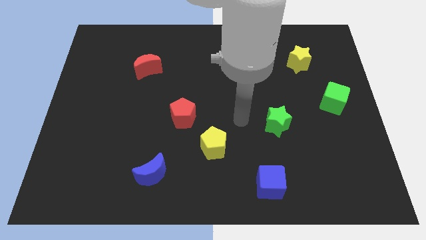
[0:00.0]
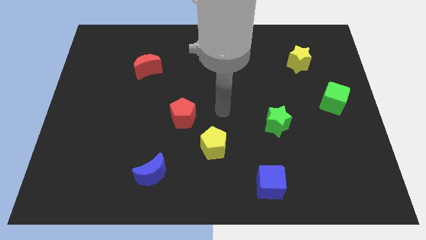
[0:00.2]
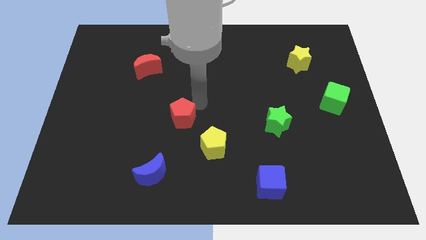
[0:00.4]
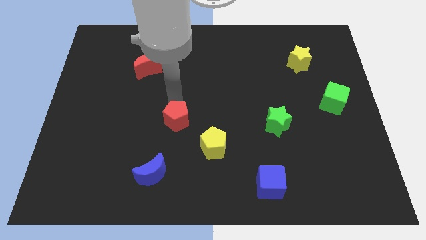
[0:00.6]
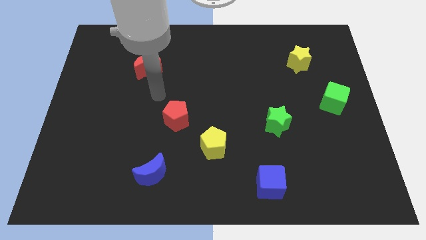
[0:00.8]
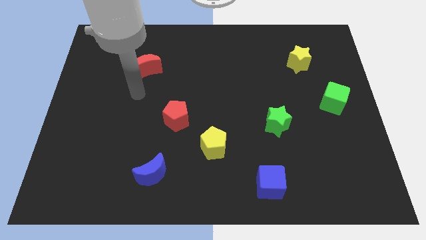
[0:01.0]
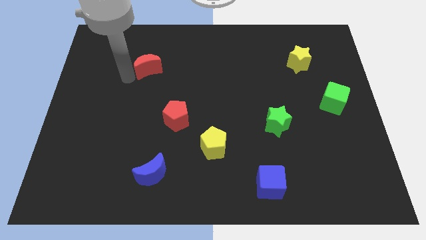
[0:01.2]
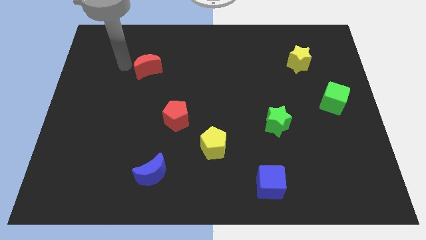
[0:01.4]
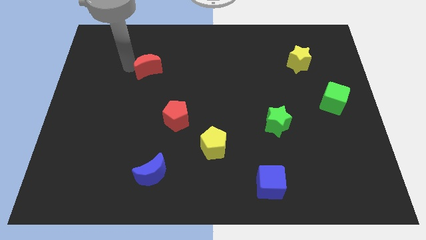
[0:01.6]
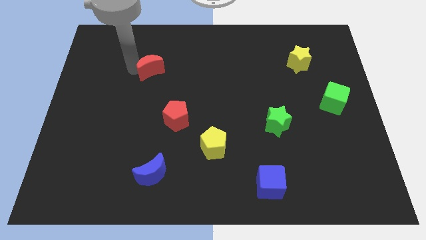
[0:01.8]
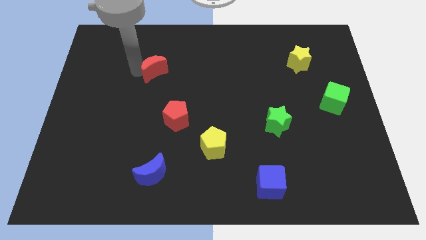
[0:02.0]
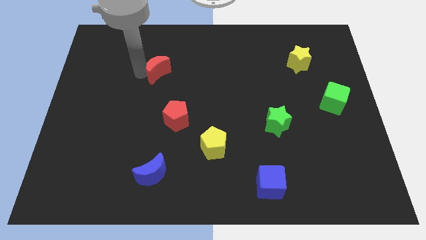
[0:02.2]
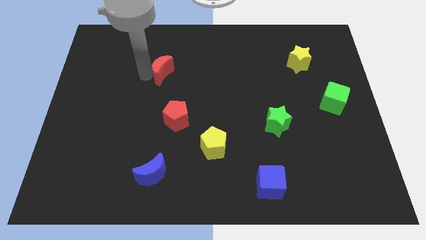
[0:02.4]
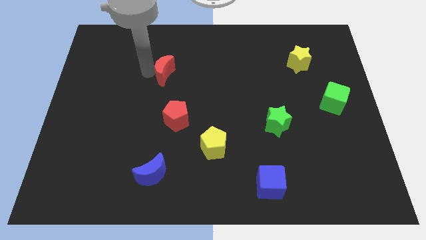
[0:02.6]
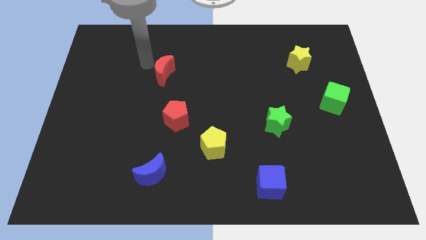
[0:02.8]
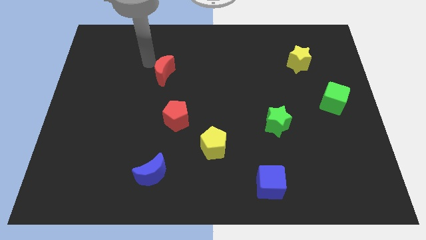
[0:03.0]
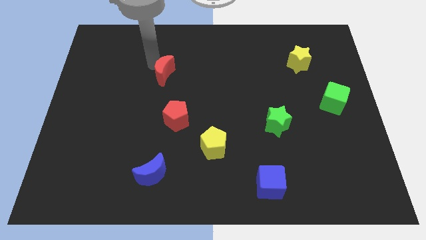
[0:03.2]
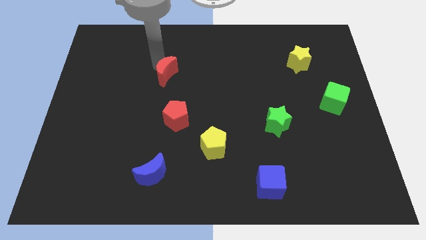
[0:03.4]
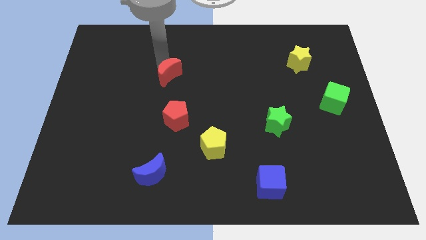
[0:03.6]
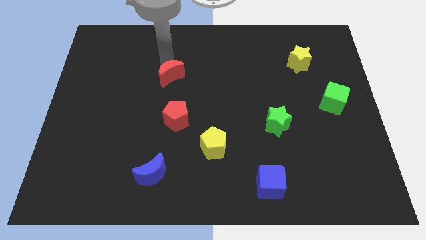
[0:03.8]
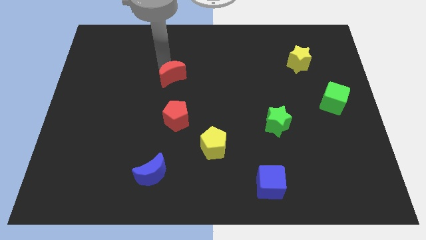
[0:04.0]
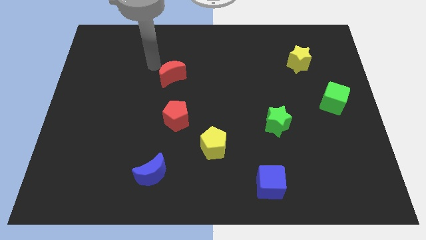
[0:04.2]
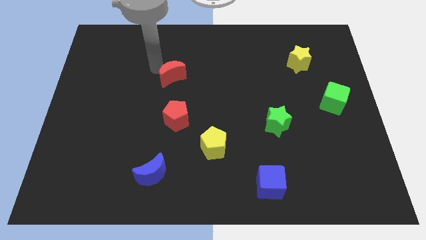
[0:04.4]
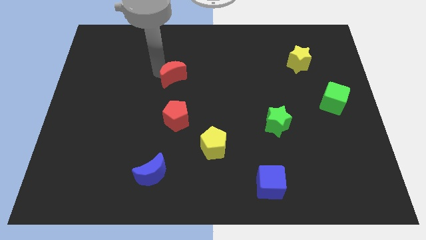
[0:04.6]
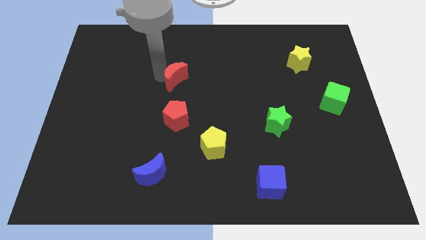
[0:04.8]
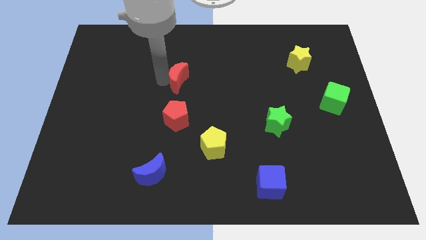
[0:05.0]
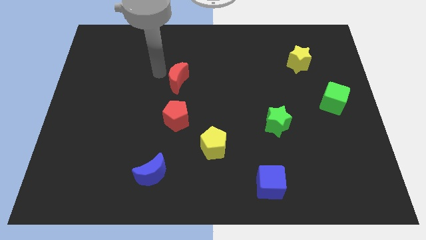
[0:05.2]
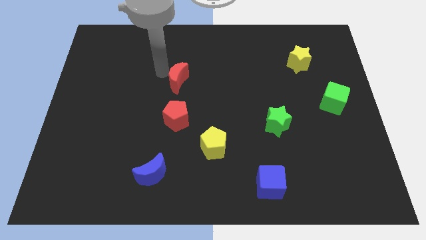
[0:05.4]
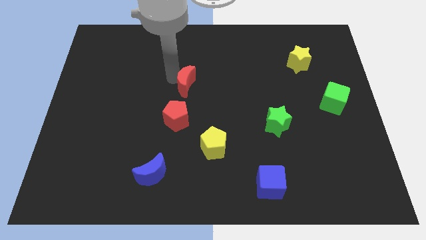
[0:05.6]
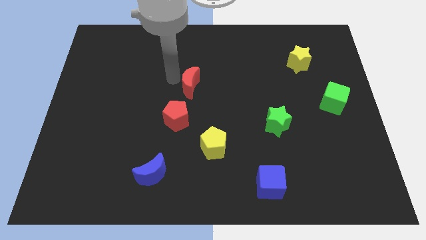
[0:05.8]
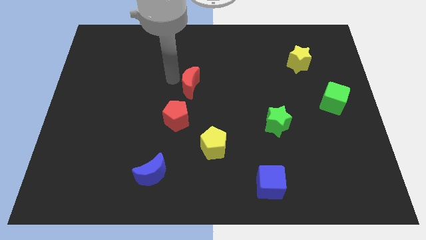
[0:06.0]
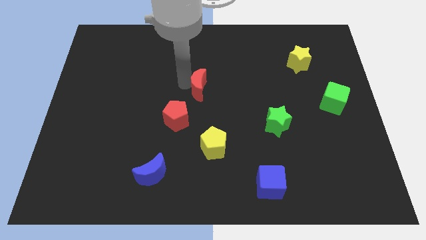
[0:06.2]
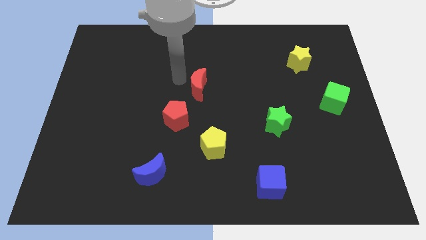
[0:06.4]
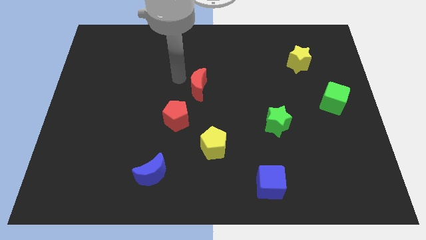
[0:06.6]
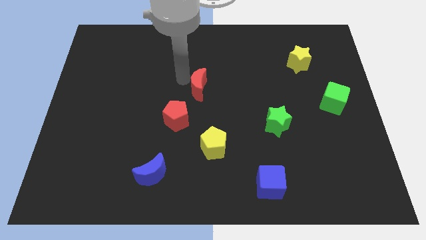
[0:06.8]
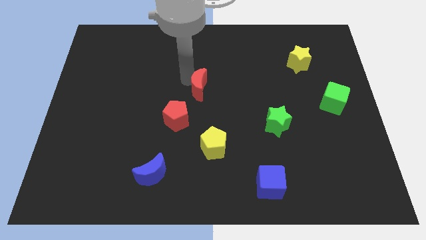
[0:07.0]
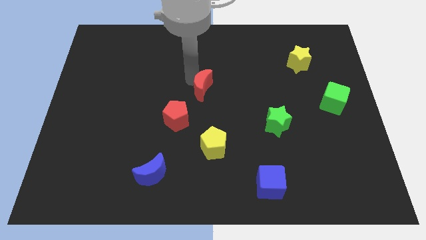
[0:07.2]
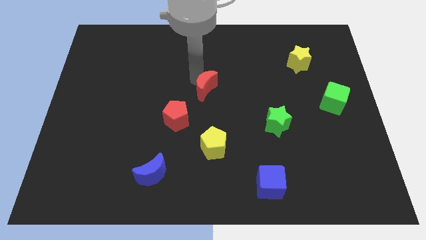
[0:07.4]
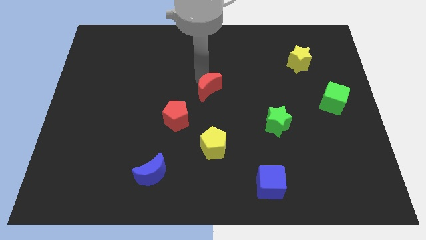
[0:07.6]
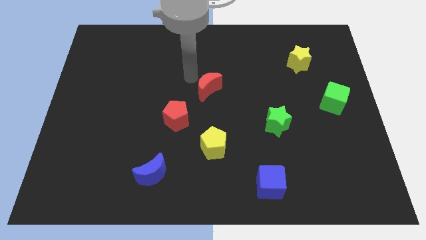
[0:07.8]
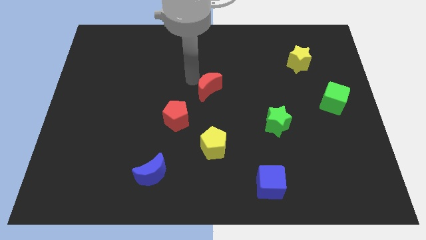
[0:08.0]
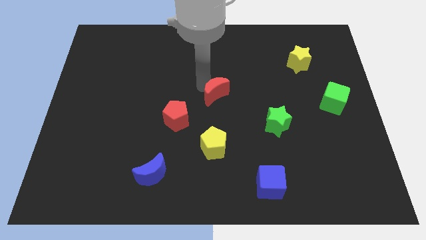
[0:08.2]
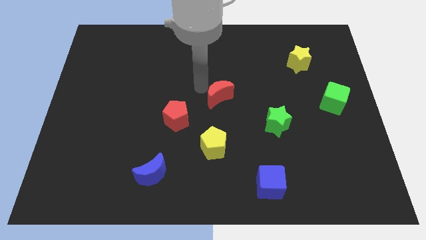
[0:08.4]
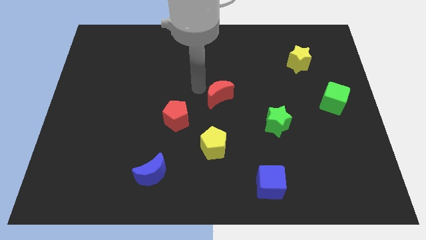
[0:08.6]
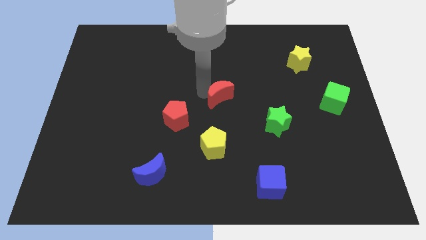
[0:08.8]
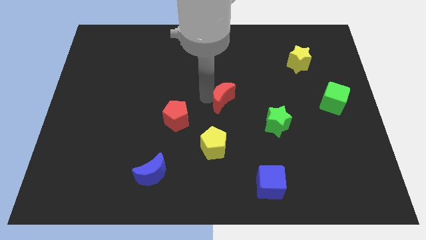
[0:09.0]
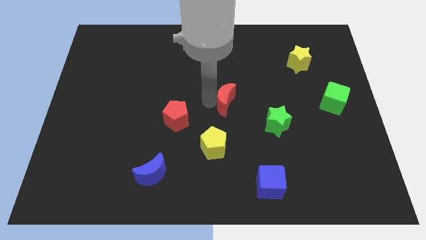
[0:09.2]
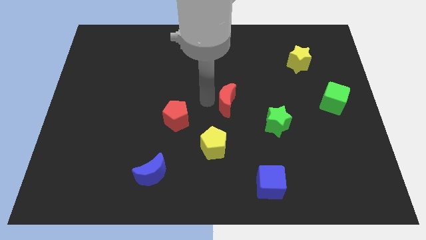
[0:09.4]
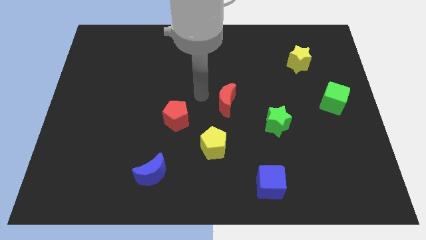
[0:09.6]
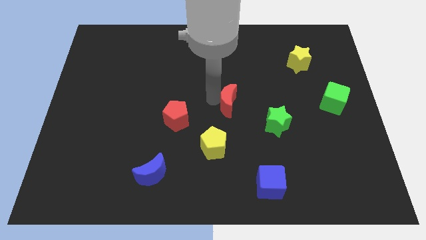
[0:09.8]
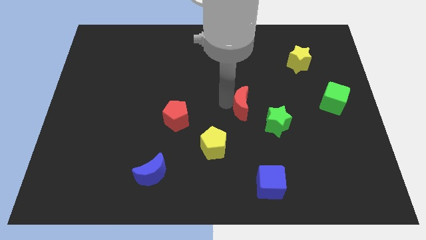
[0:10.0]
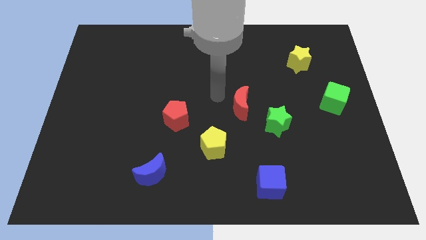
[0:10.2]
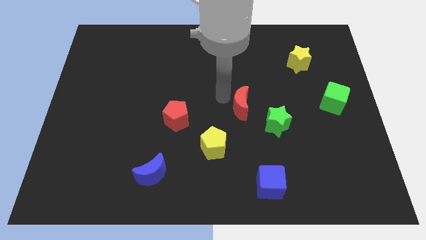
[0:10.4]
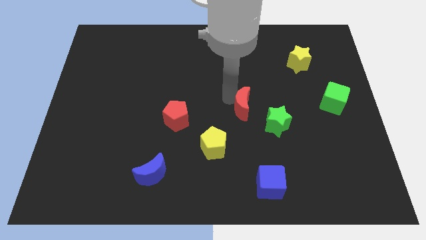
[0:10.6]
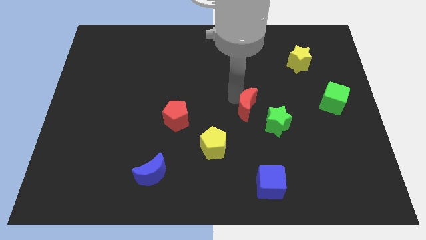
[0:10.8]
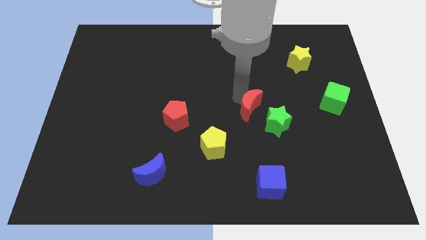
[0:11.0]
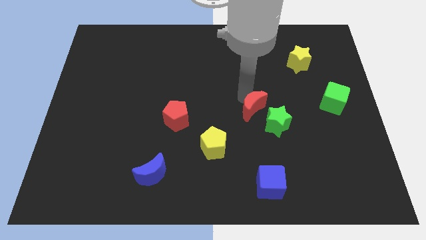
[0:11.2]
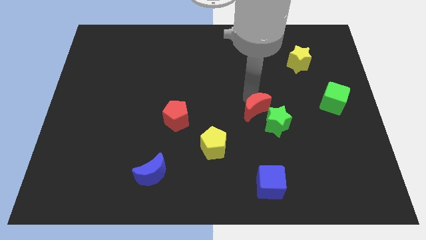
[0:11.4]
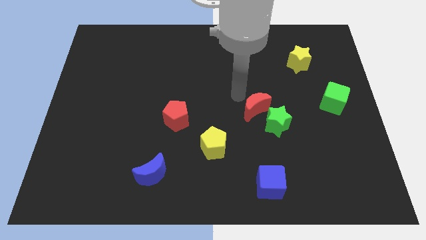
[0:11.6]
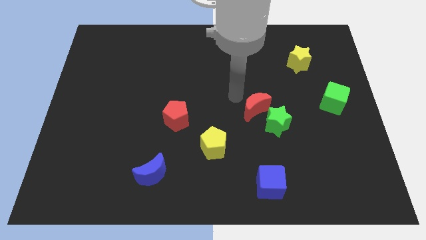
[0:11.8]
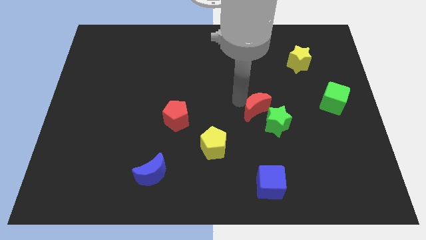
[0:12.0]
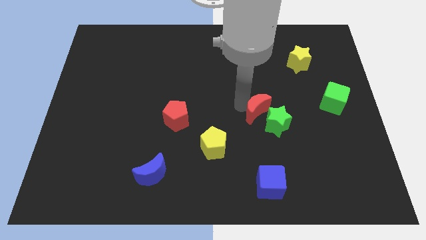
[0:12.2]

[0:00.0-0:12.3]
put the red moon next to the green star

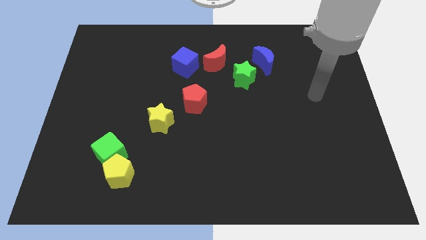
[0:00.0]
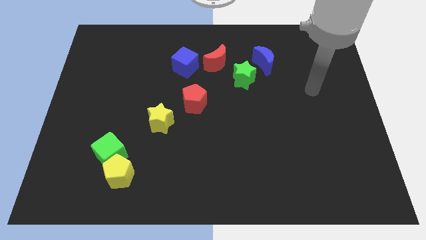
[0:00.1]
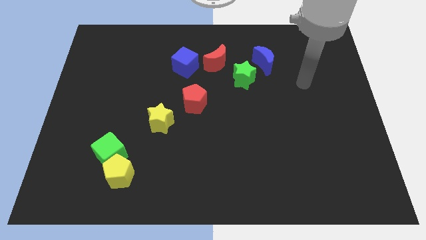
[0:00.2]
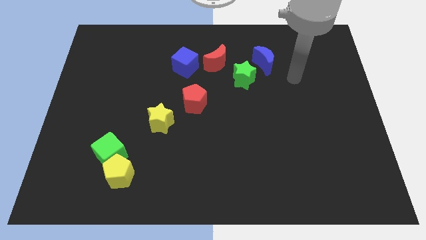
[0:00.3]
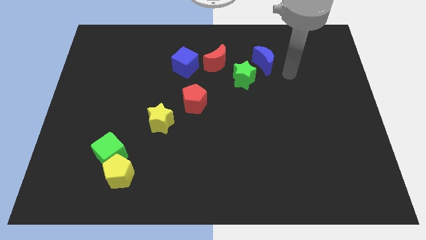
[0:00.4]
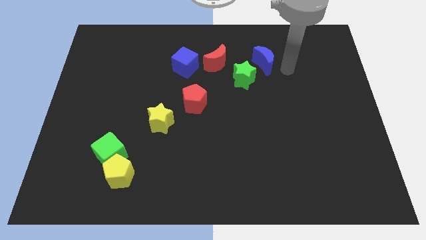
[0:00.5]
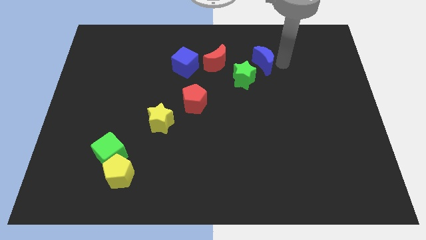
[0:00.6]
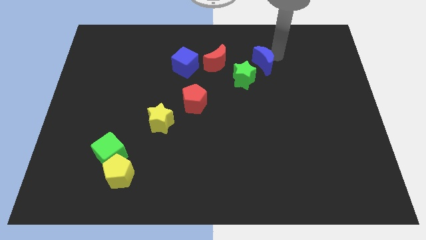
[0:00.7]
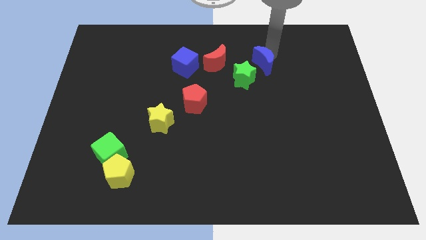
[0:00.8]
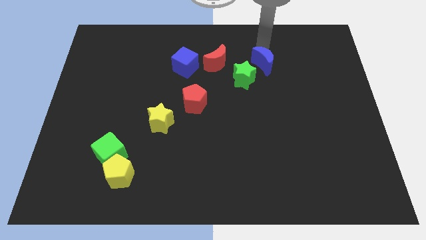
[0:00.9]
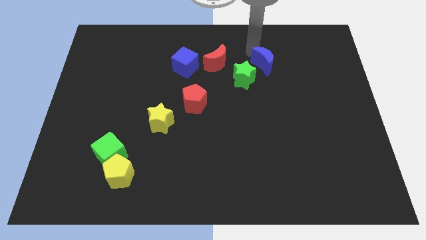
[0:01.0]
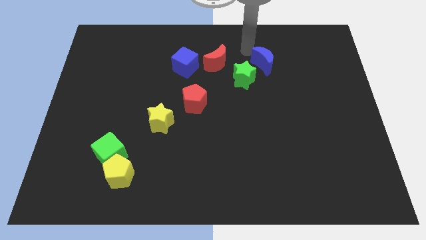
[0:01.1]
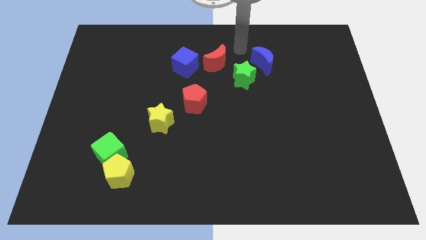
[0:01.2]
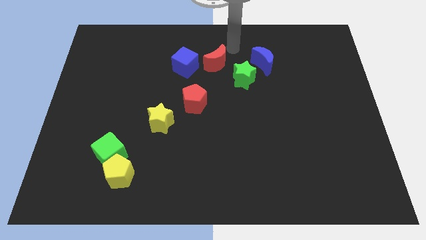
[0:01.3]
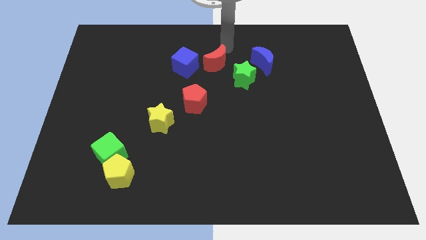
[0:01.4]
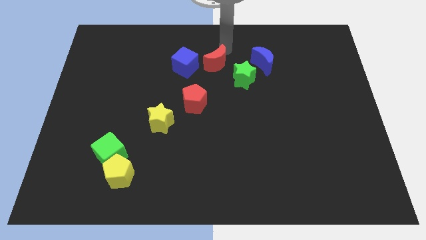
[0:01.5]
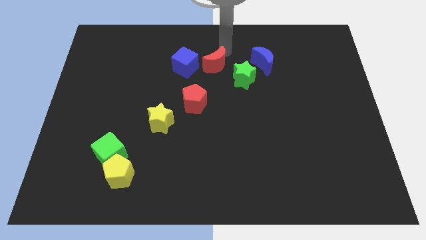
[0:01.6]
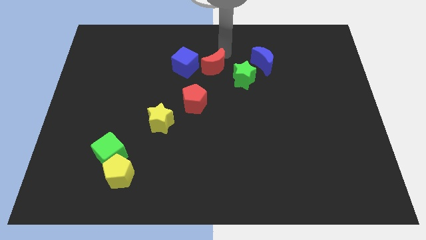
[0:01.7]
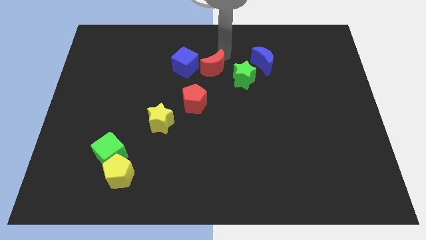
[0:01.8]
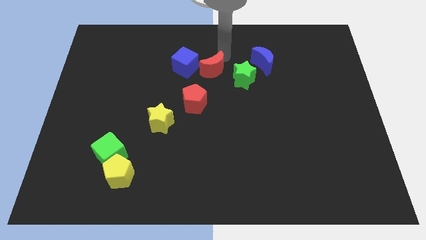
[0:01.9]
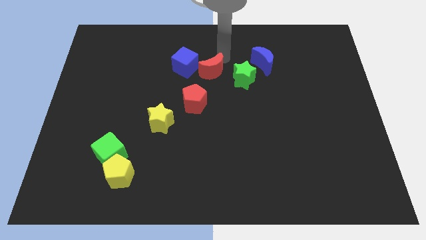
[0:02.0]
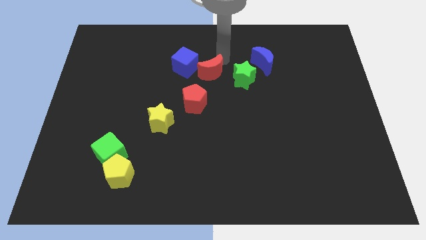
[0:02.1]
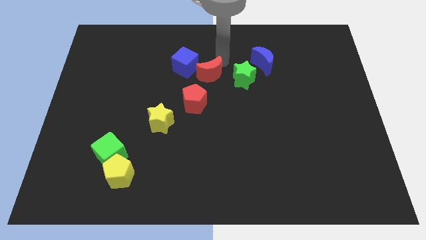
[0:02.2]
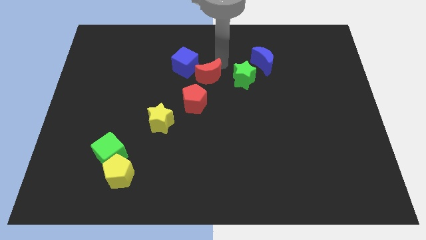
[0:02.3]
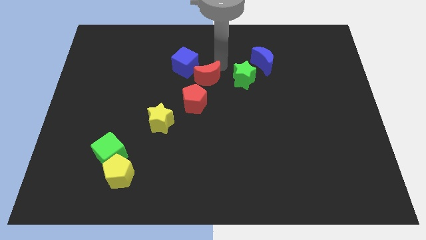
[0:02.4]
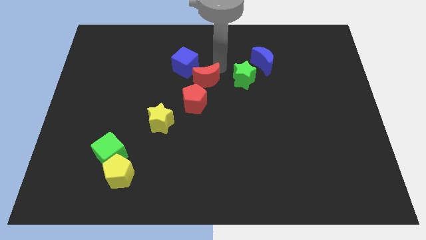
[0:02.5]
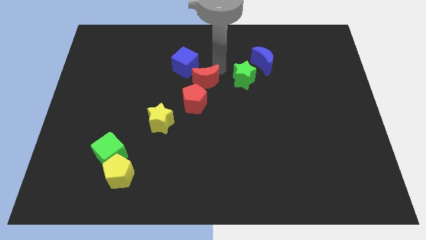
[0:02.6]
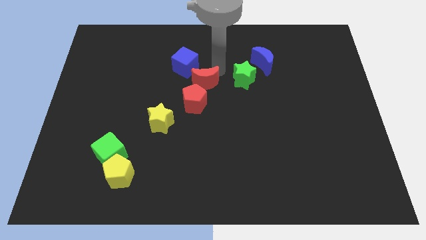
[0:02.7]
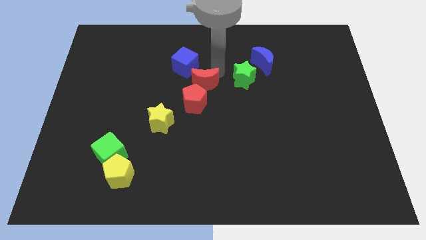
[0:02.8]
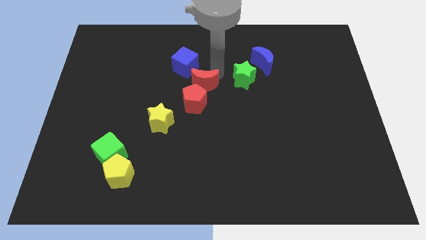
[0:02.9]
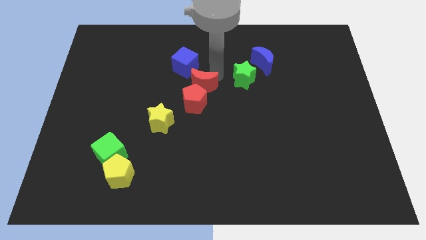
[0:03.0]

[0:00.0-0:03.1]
put the red moon close to the red pentagon
